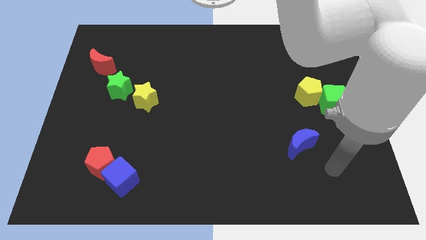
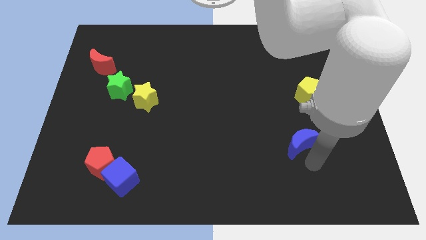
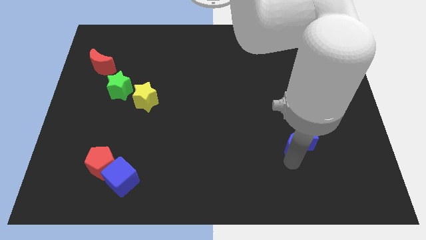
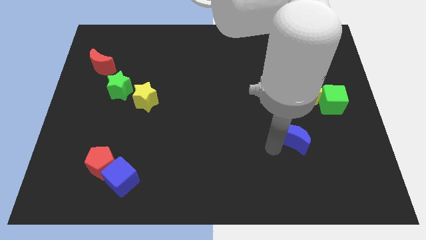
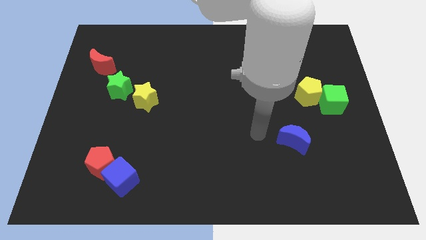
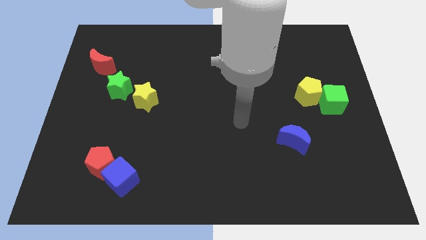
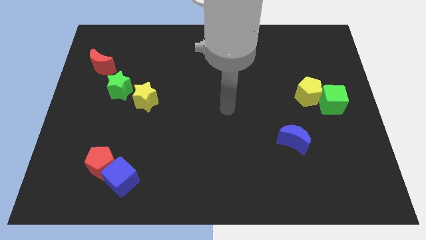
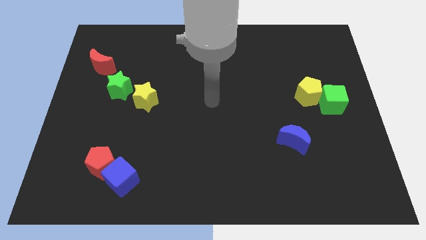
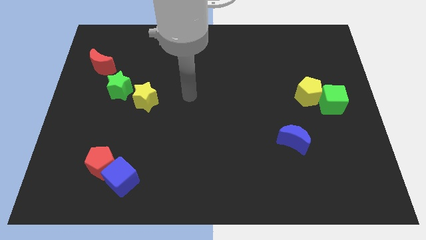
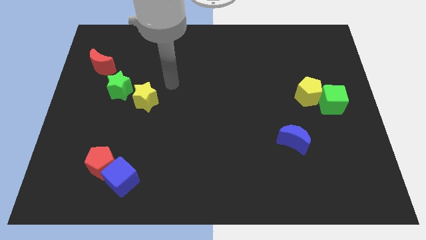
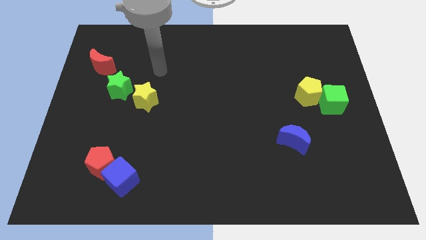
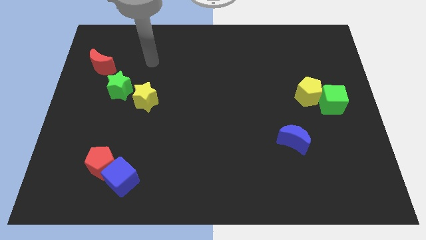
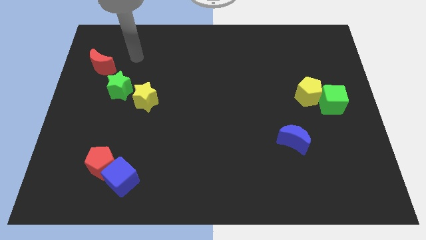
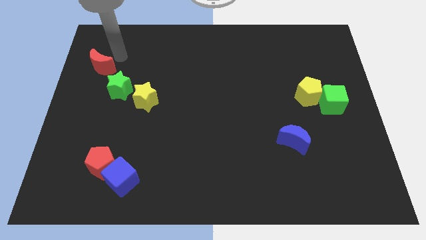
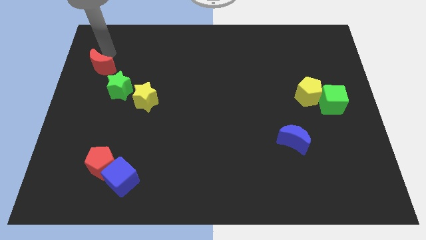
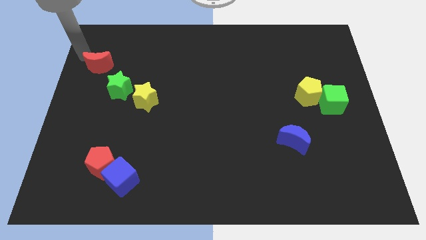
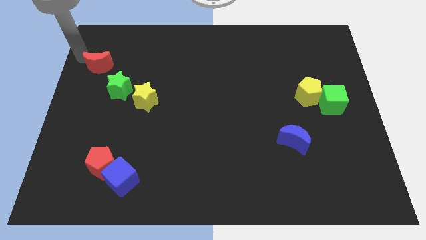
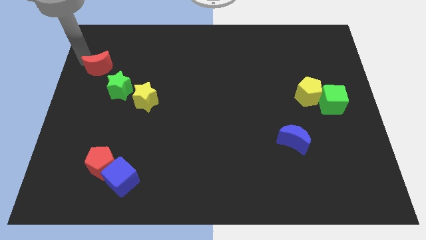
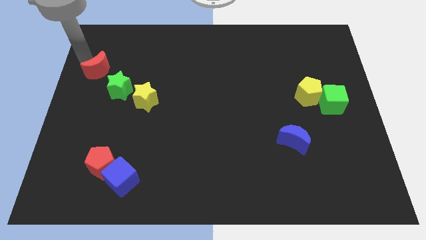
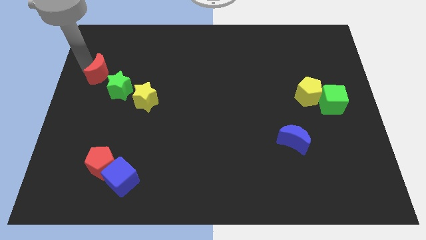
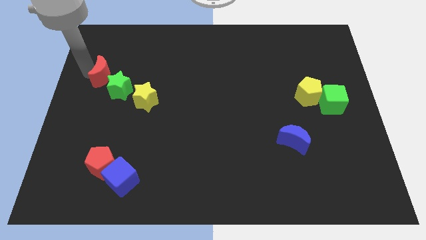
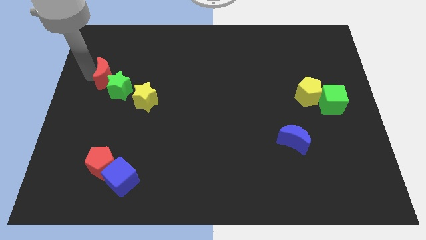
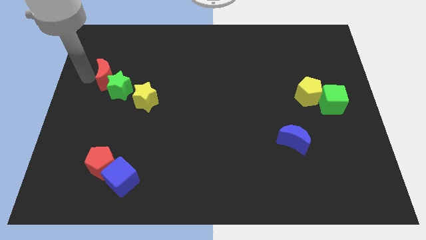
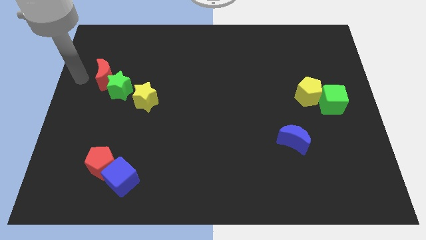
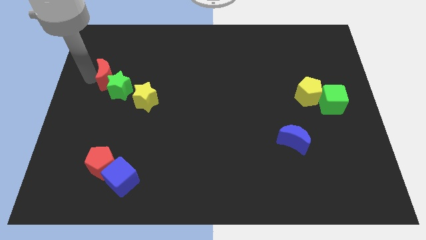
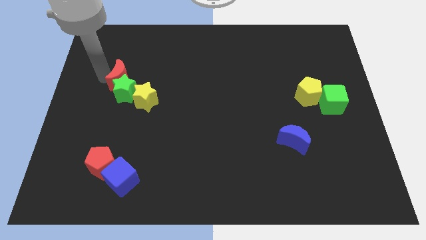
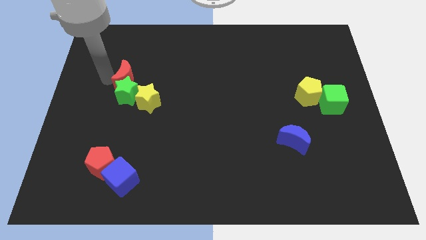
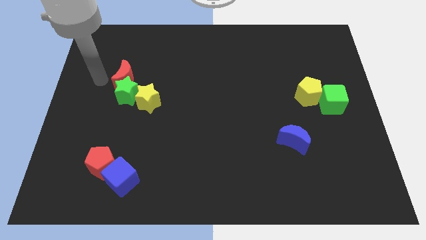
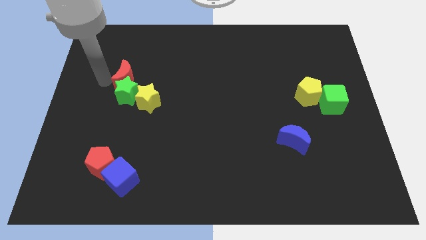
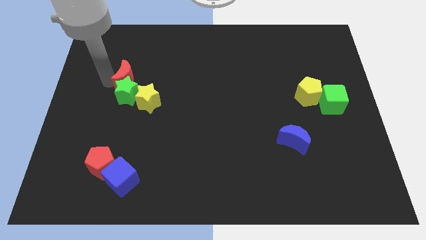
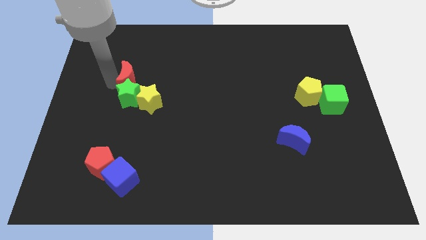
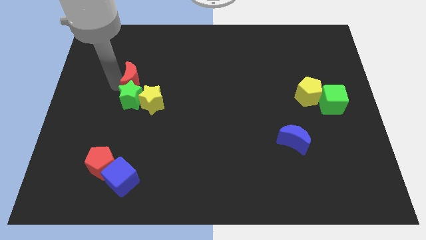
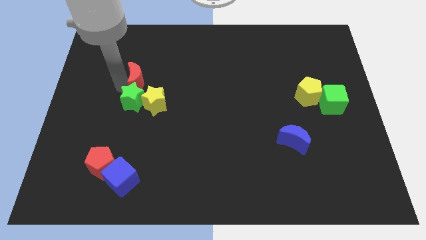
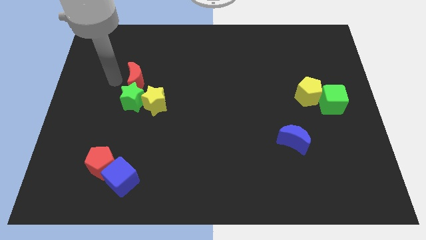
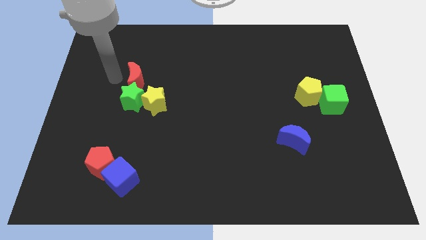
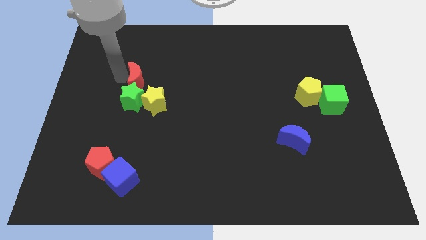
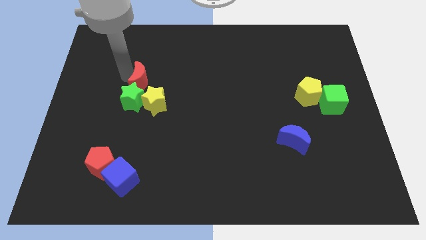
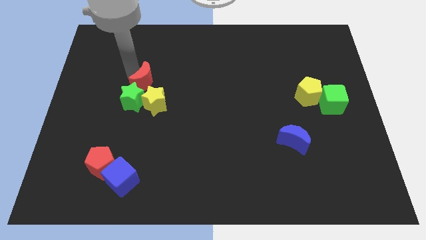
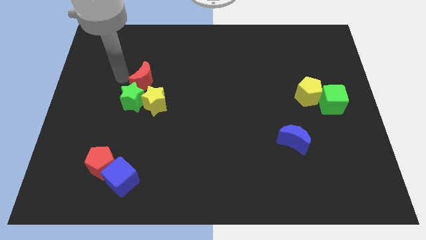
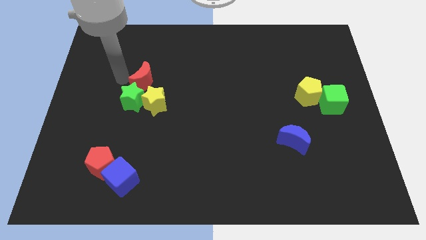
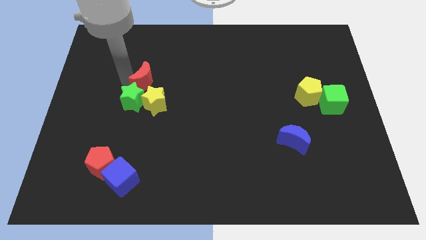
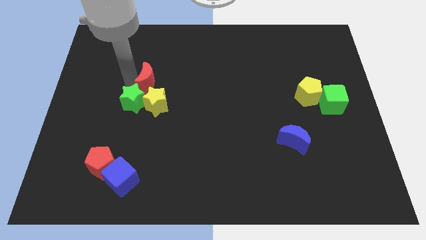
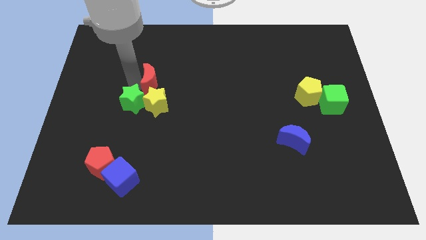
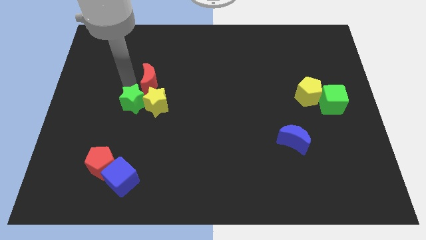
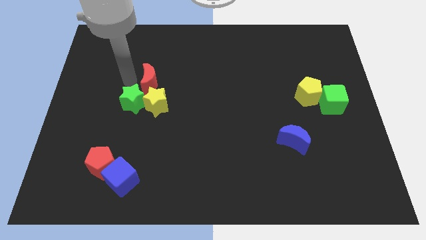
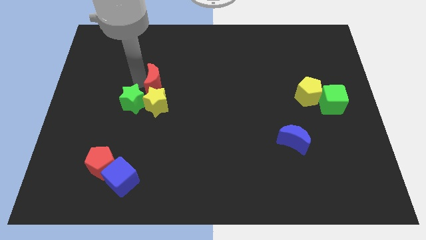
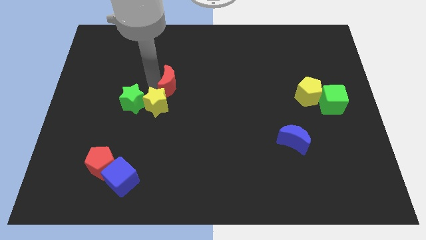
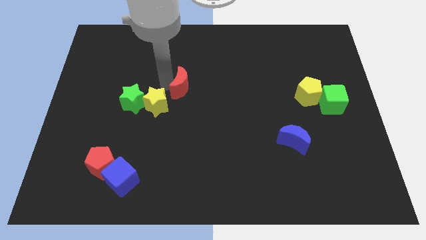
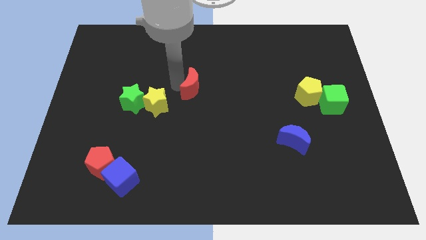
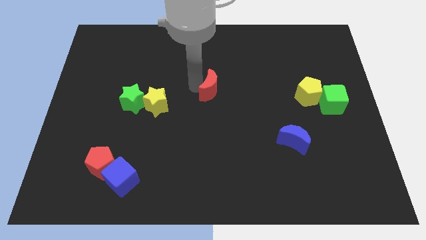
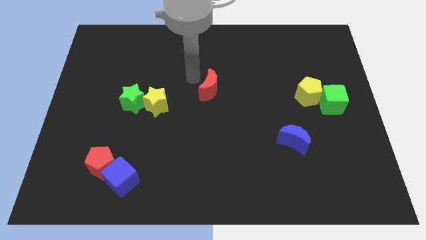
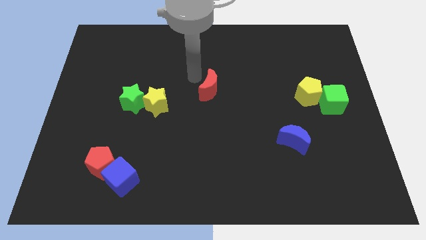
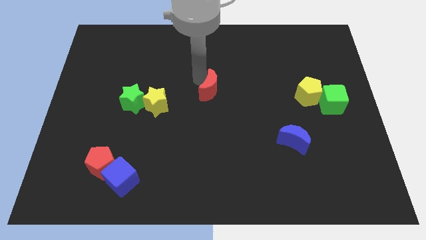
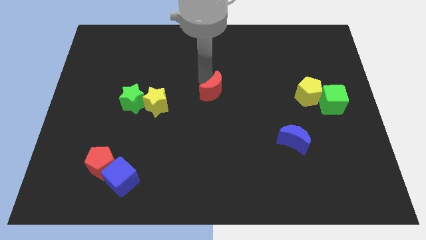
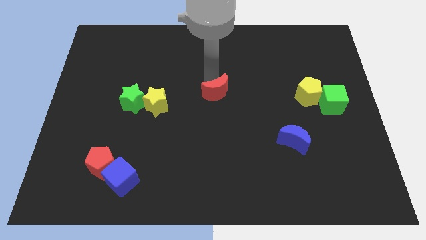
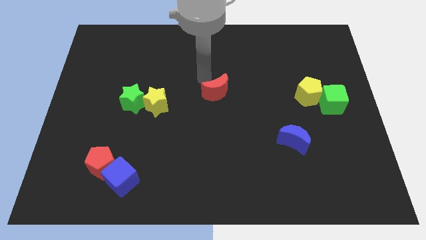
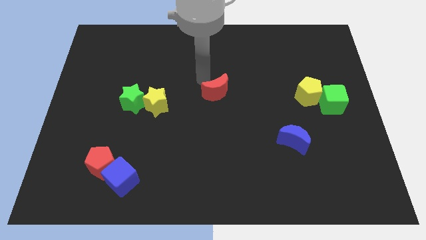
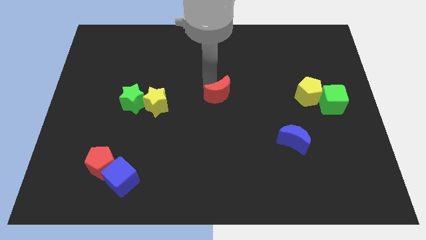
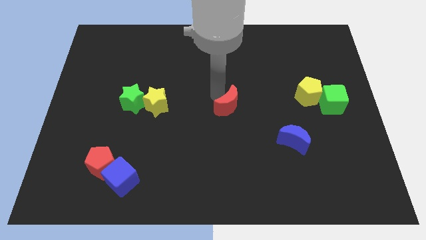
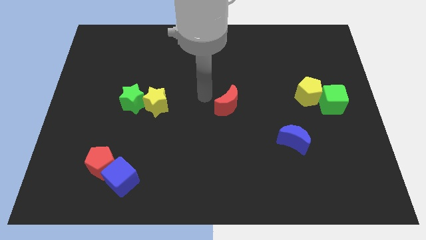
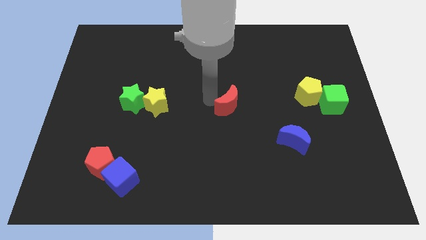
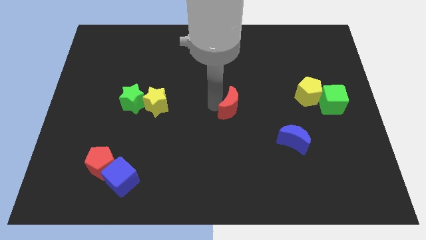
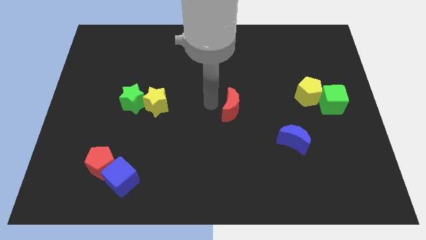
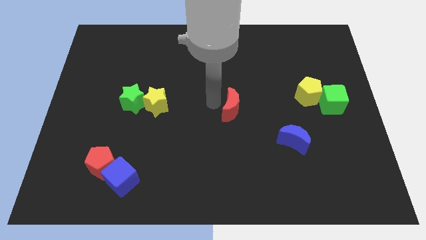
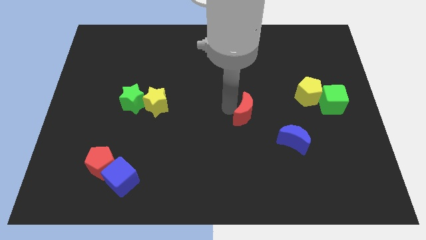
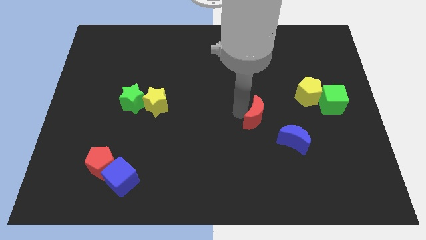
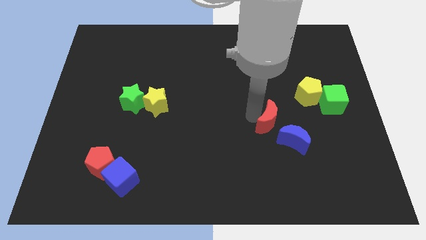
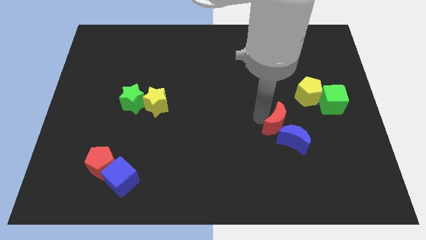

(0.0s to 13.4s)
put the red moon next to the blue moon

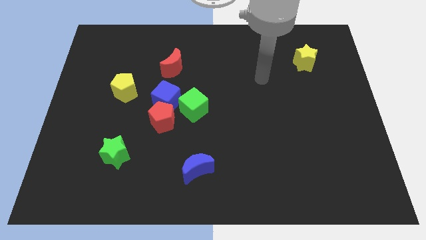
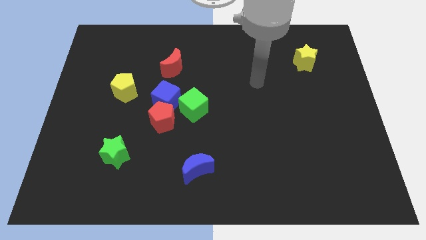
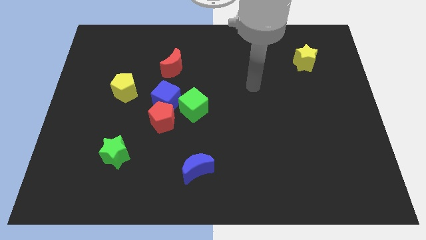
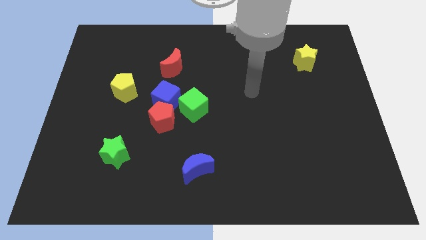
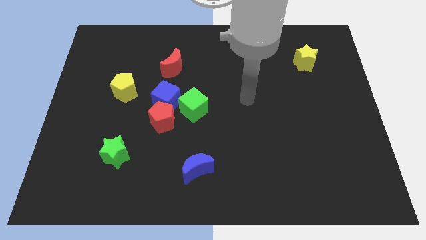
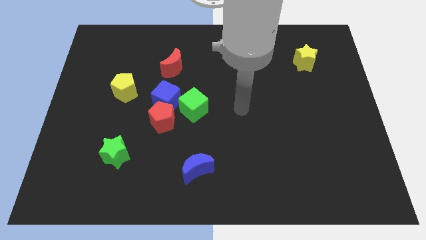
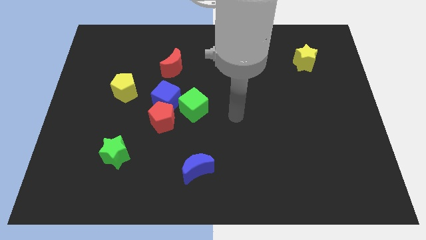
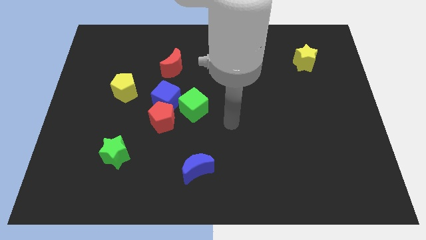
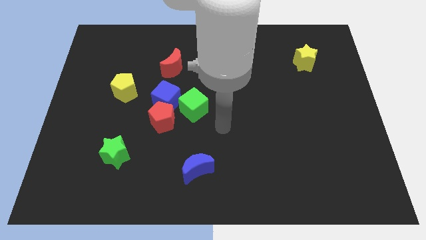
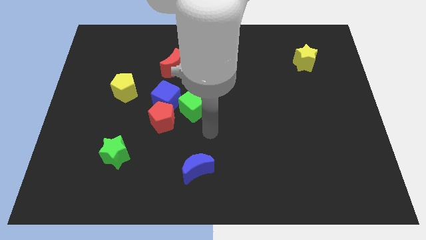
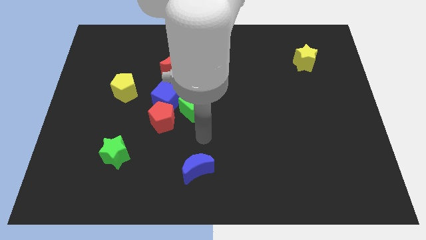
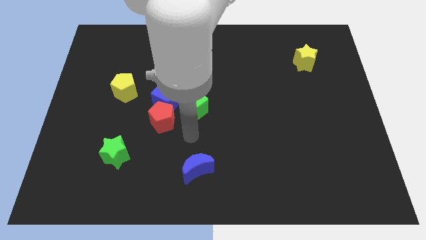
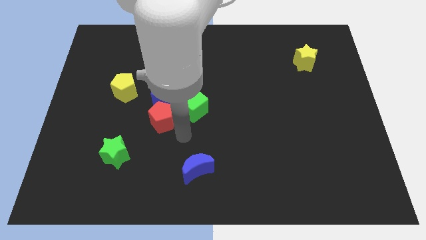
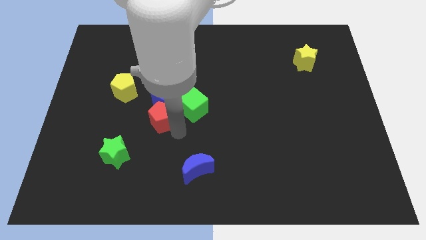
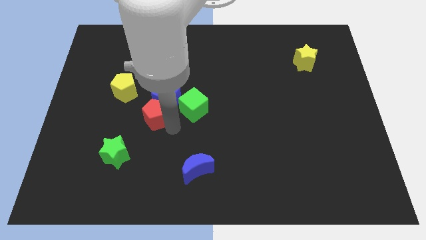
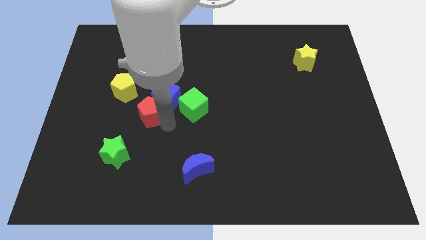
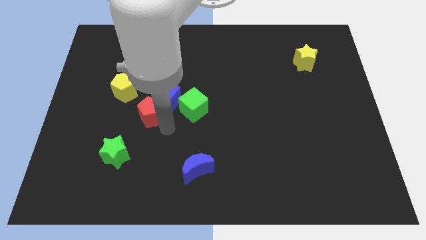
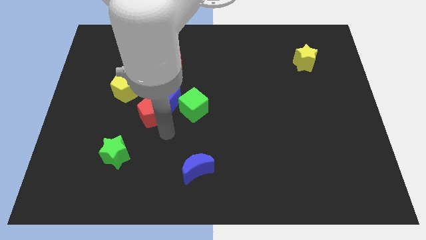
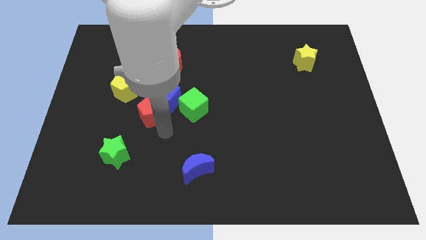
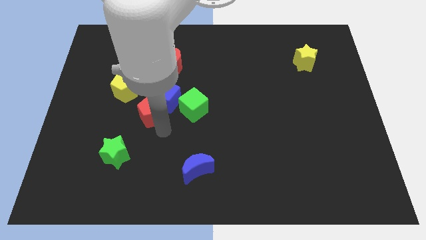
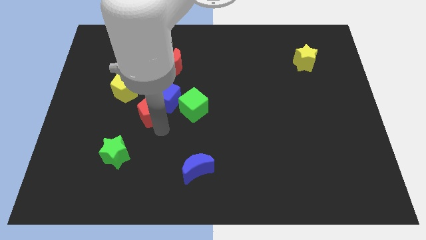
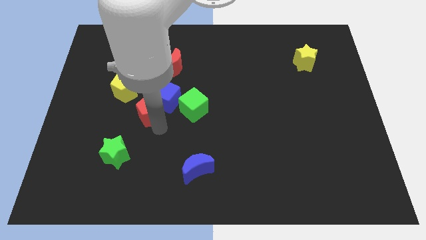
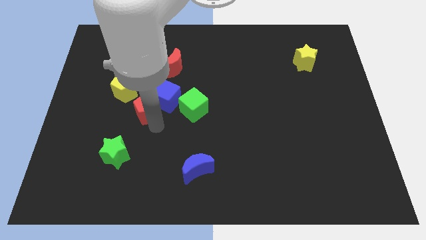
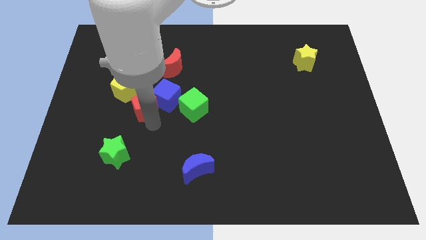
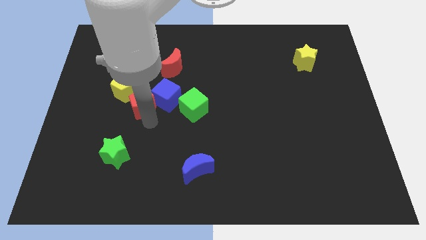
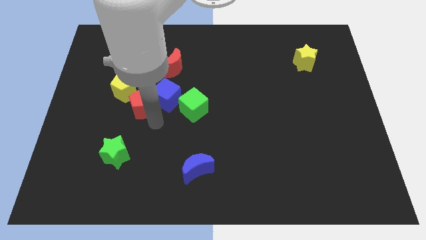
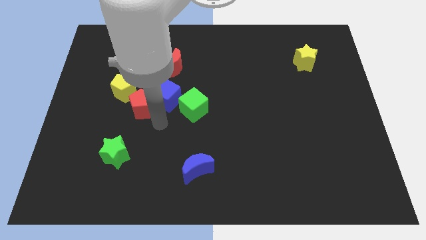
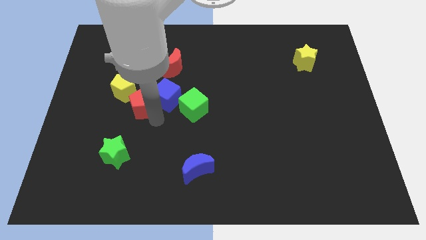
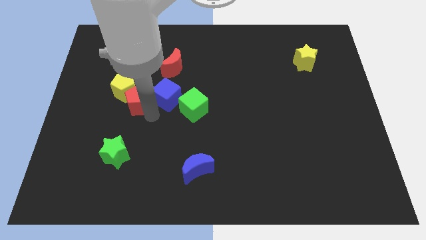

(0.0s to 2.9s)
slide the red pentagon to the yellow pentagon
